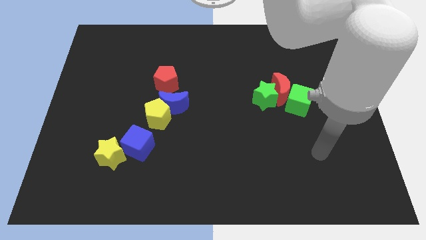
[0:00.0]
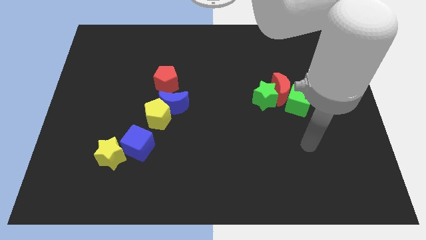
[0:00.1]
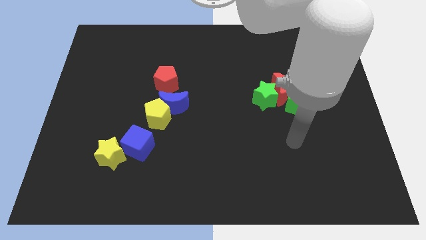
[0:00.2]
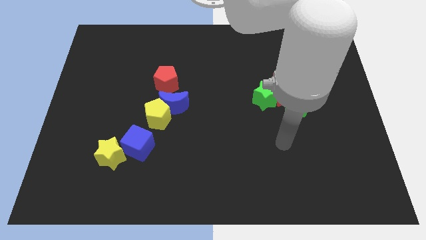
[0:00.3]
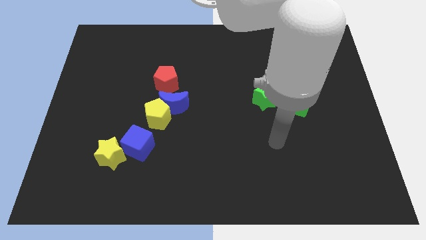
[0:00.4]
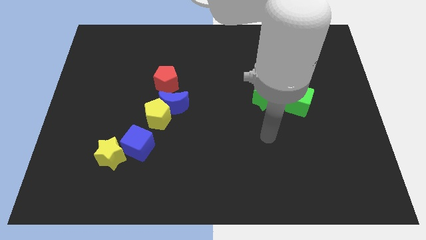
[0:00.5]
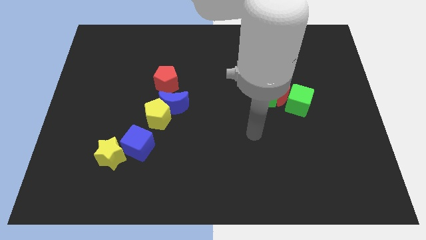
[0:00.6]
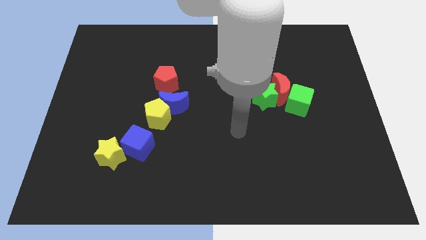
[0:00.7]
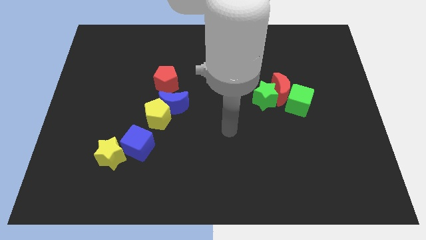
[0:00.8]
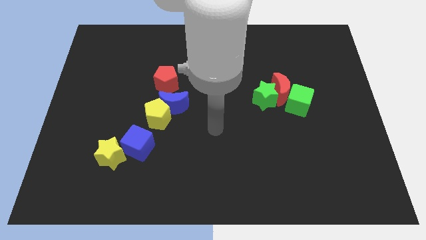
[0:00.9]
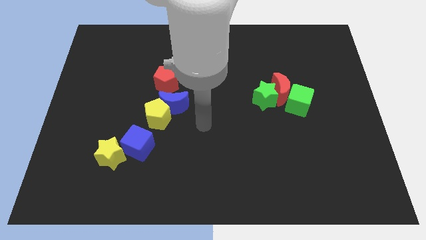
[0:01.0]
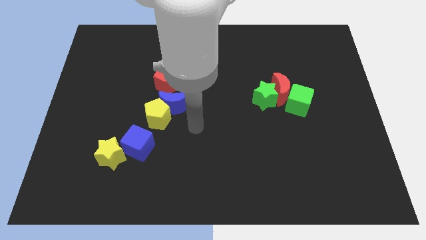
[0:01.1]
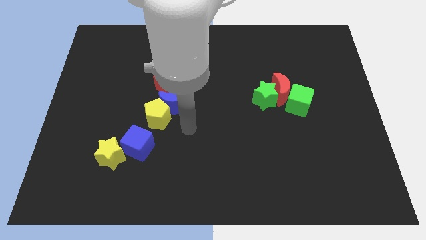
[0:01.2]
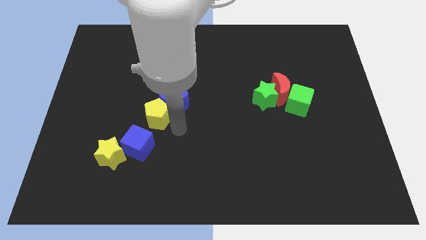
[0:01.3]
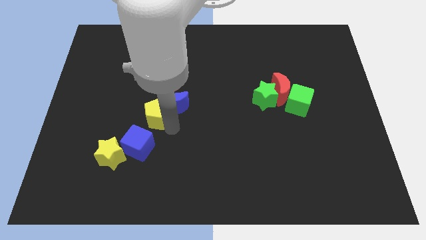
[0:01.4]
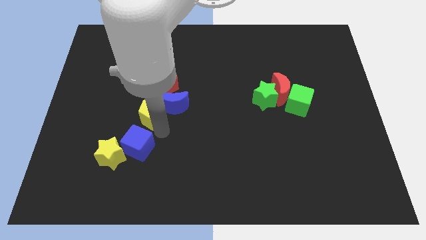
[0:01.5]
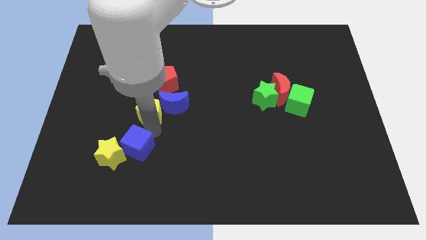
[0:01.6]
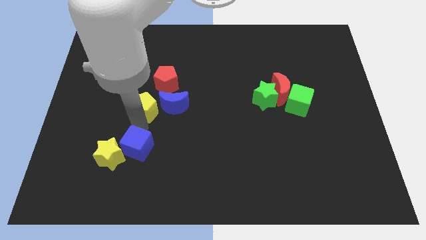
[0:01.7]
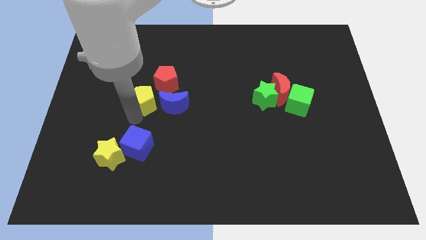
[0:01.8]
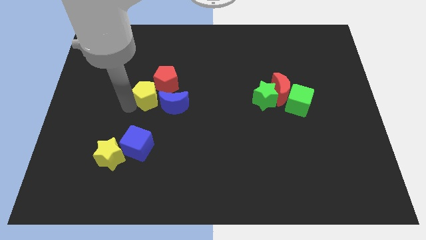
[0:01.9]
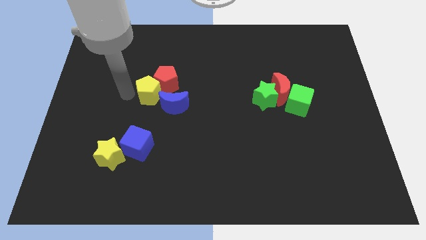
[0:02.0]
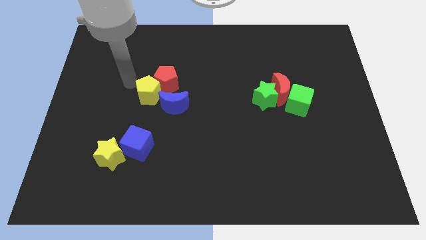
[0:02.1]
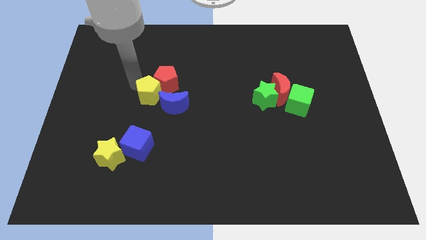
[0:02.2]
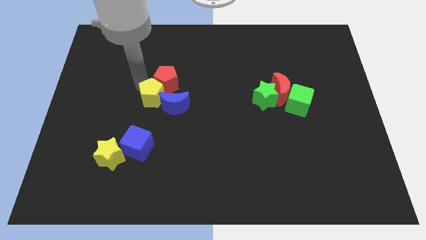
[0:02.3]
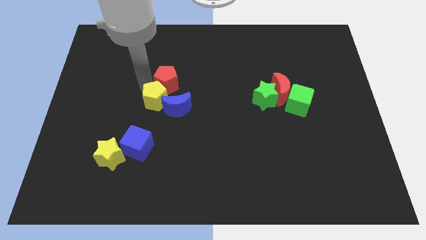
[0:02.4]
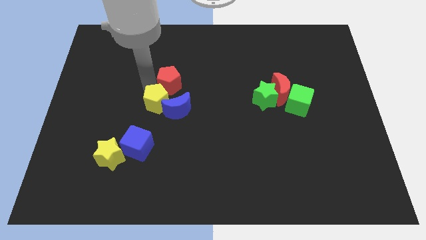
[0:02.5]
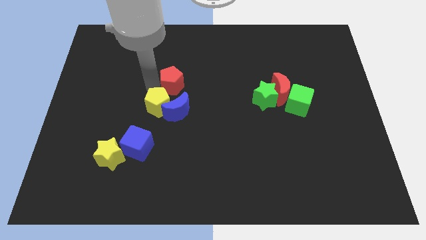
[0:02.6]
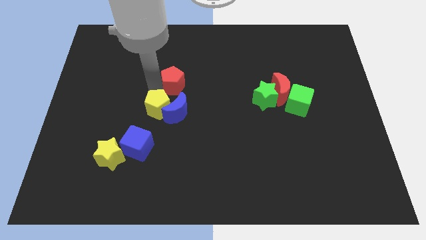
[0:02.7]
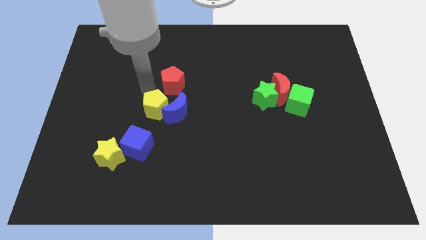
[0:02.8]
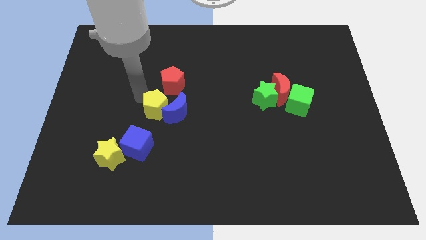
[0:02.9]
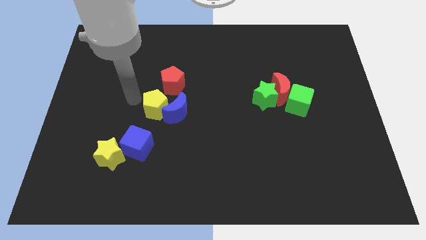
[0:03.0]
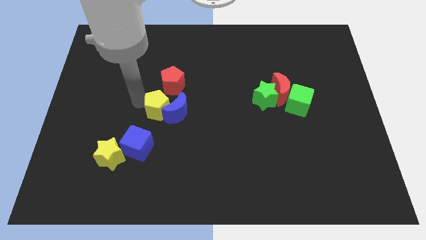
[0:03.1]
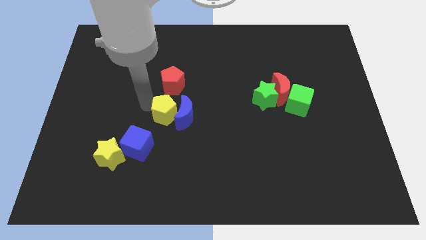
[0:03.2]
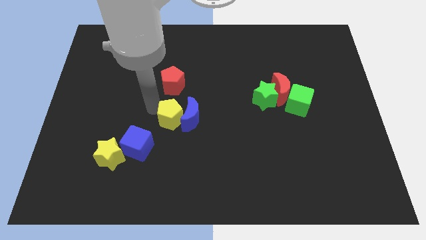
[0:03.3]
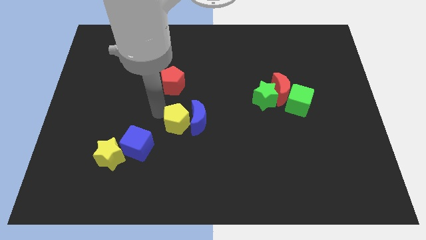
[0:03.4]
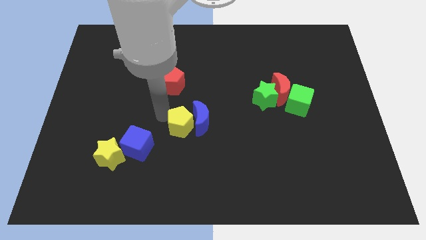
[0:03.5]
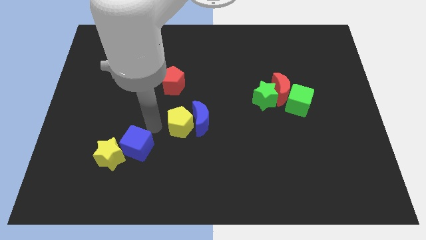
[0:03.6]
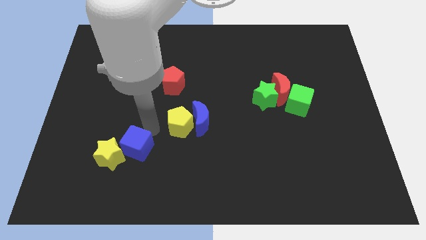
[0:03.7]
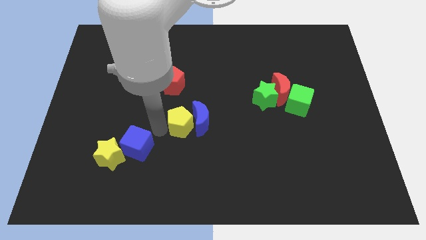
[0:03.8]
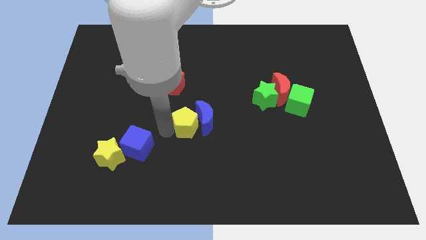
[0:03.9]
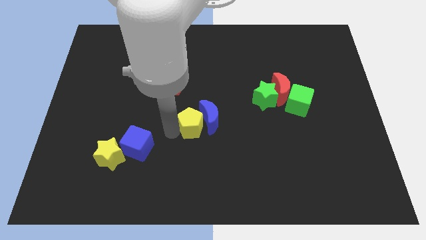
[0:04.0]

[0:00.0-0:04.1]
move the yellow pentagon to the right a little bit

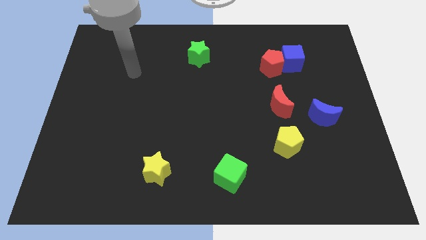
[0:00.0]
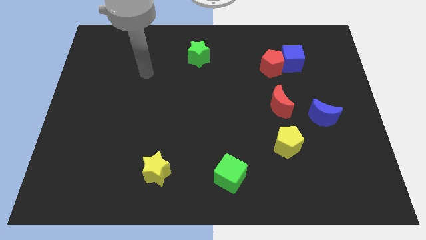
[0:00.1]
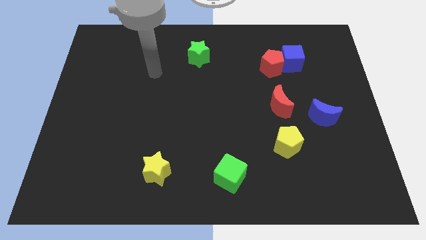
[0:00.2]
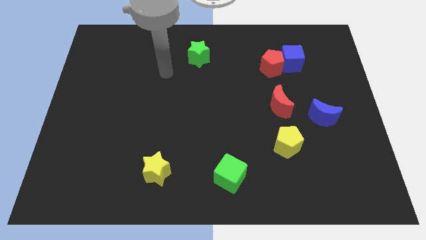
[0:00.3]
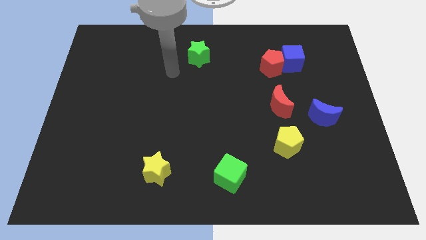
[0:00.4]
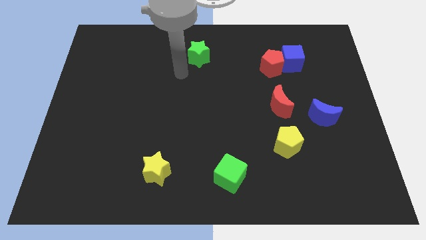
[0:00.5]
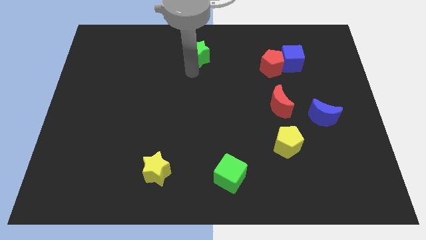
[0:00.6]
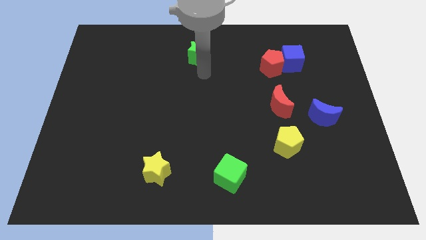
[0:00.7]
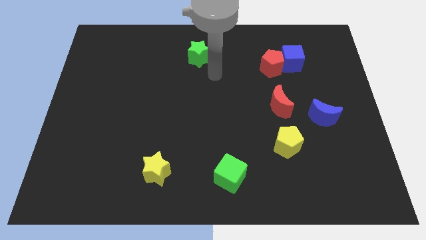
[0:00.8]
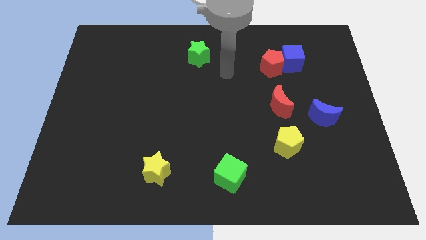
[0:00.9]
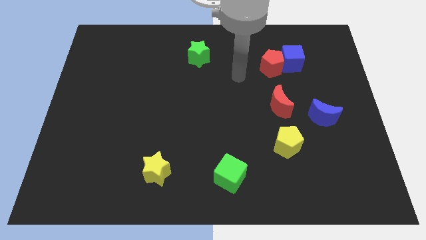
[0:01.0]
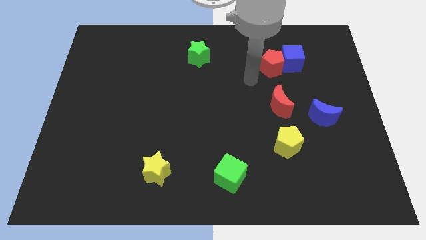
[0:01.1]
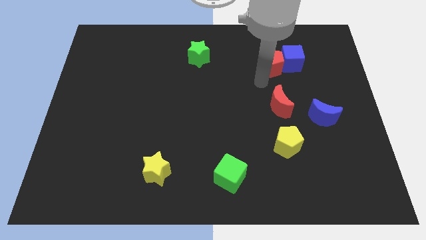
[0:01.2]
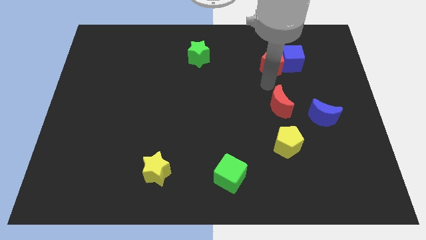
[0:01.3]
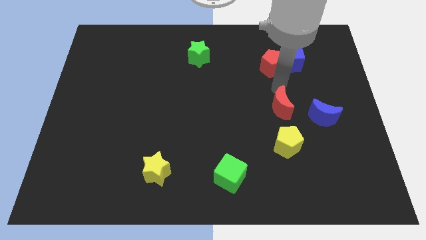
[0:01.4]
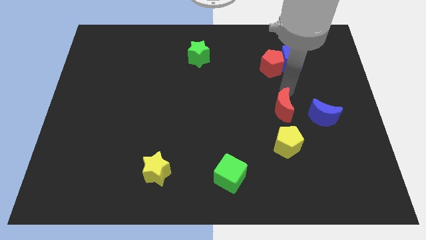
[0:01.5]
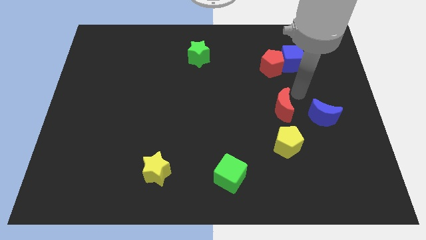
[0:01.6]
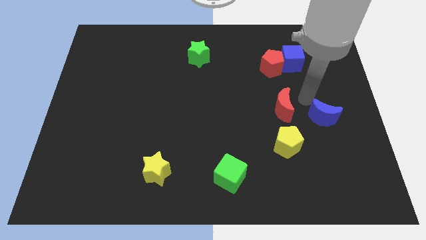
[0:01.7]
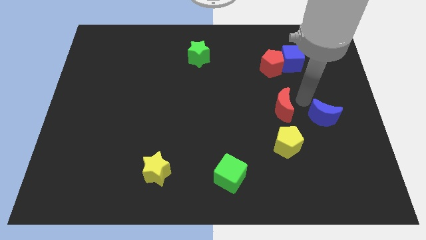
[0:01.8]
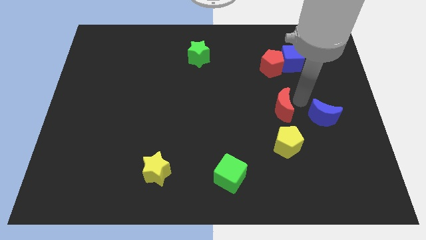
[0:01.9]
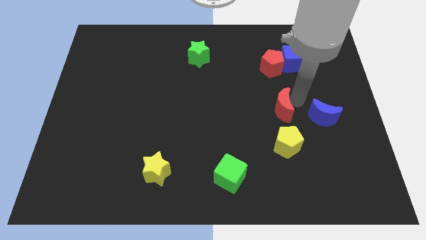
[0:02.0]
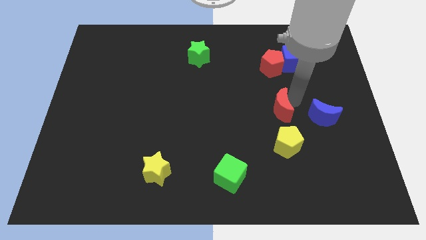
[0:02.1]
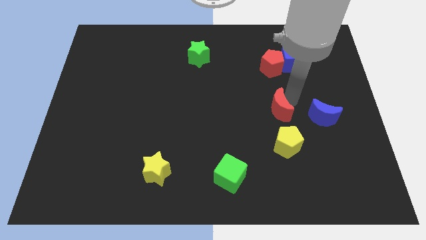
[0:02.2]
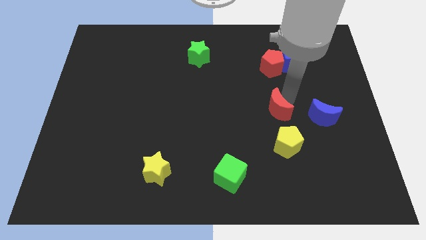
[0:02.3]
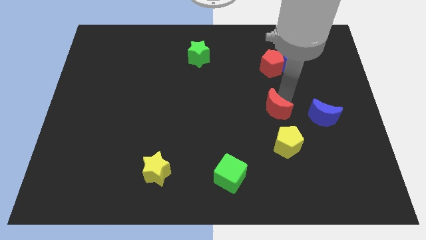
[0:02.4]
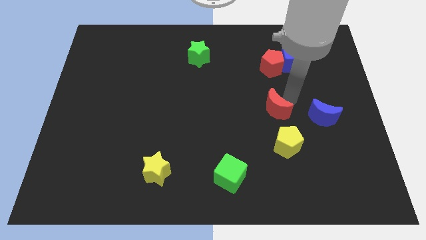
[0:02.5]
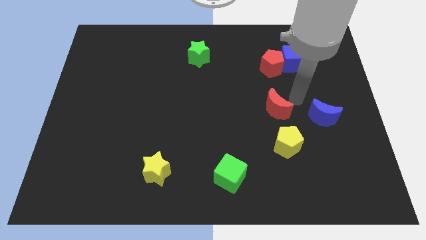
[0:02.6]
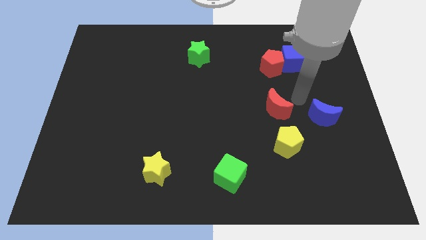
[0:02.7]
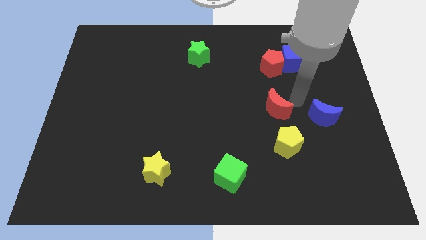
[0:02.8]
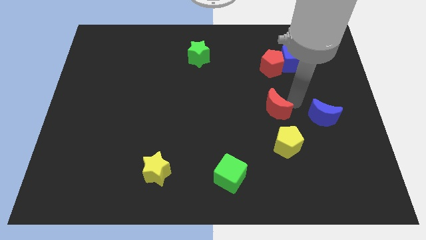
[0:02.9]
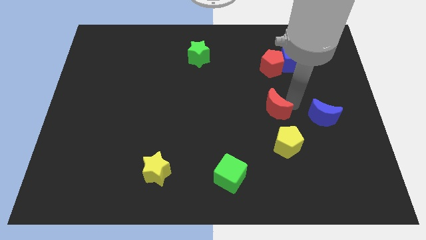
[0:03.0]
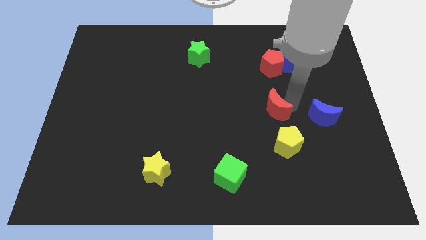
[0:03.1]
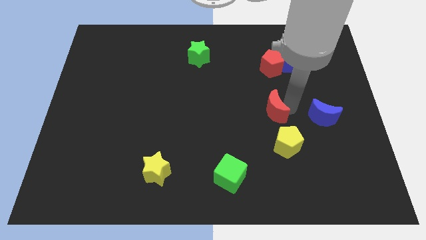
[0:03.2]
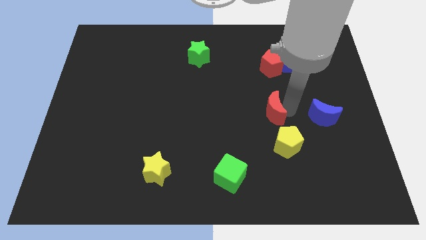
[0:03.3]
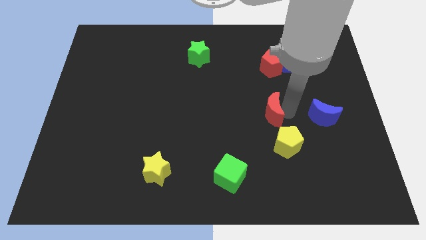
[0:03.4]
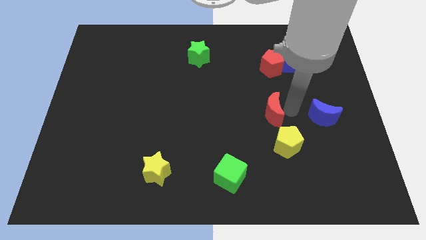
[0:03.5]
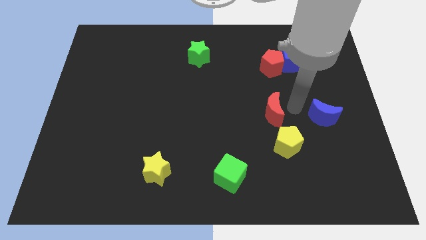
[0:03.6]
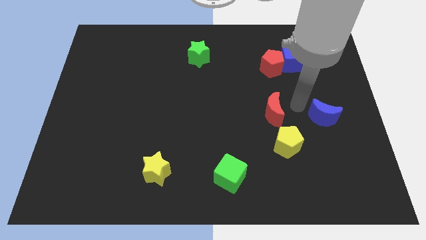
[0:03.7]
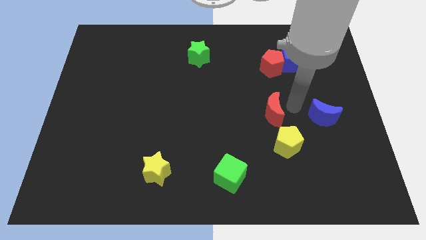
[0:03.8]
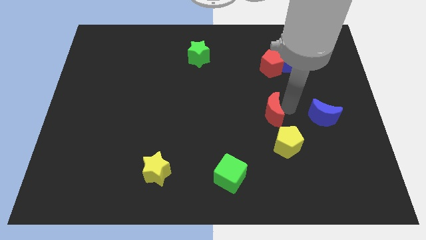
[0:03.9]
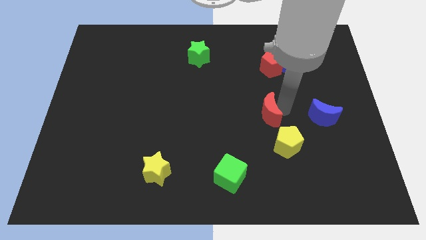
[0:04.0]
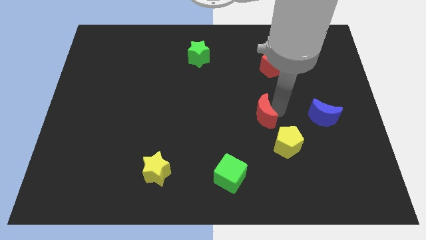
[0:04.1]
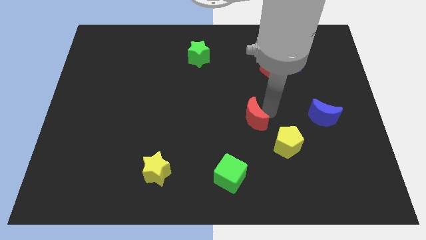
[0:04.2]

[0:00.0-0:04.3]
slide the red moon somewhat downwards and then to the left
